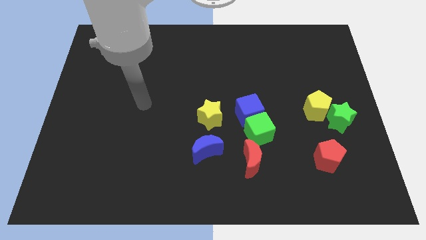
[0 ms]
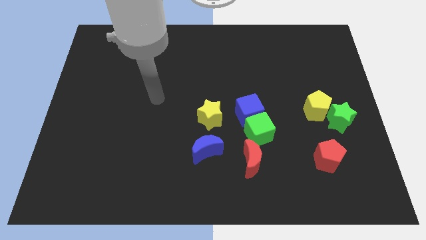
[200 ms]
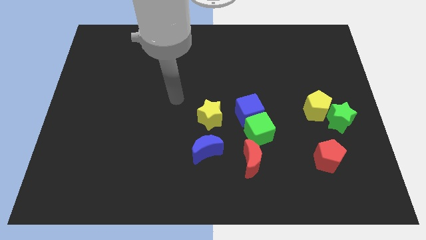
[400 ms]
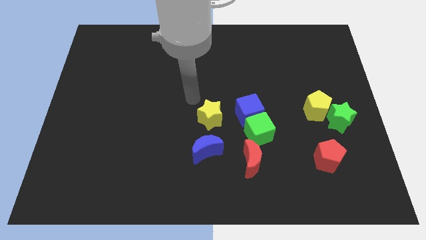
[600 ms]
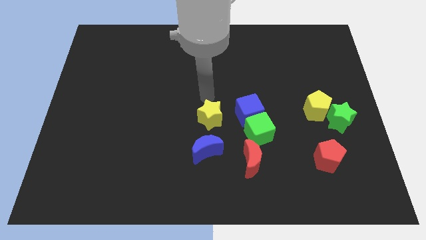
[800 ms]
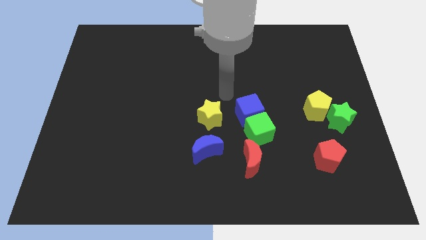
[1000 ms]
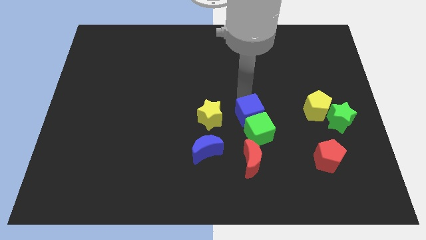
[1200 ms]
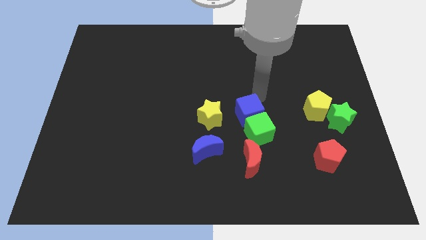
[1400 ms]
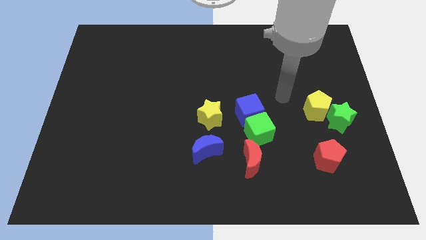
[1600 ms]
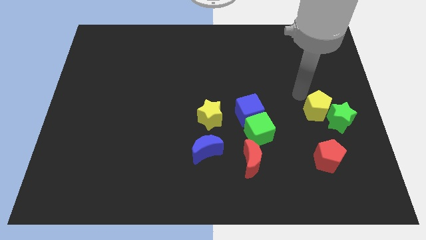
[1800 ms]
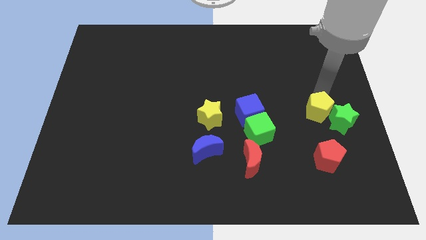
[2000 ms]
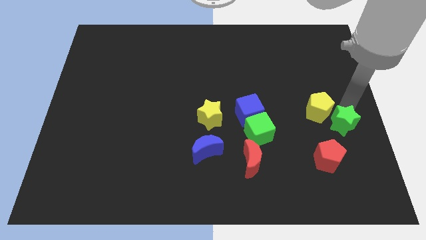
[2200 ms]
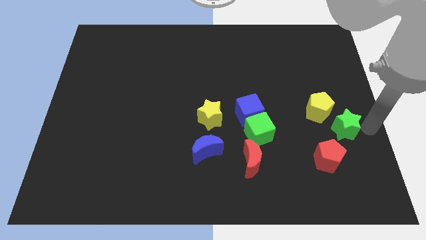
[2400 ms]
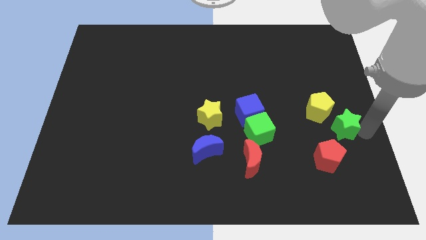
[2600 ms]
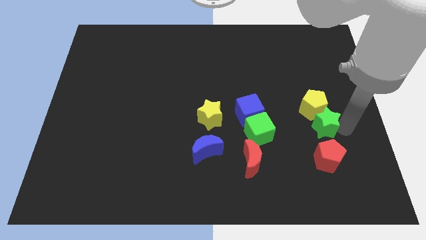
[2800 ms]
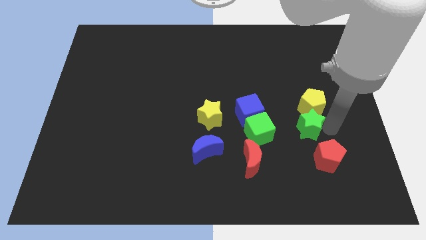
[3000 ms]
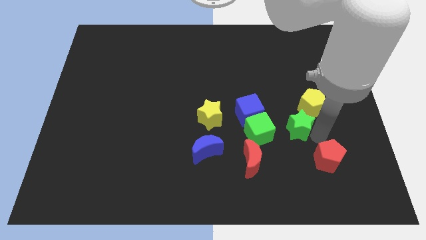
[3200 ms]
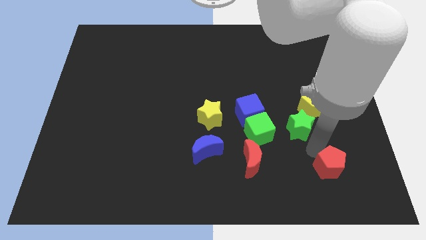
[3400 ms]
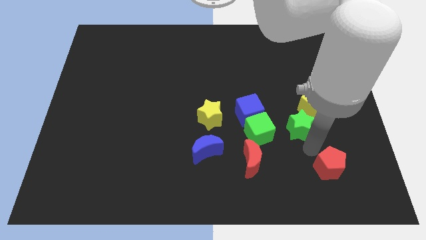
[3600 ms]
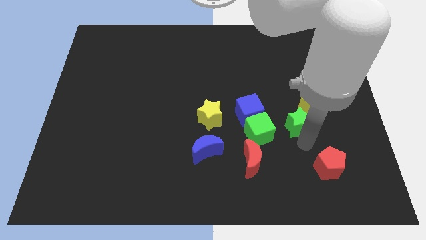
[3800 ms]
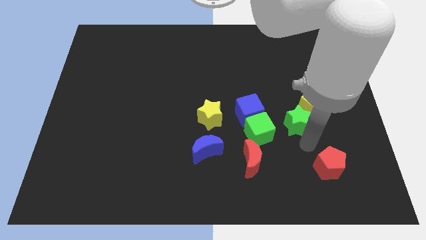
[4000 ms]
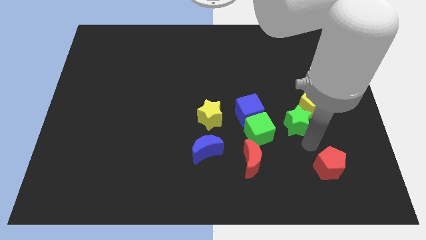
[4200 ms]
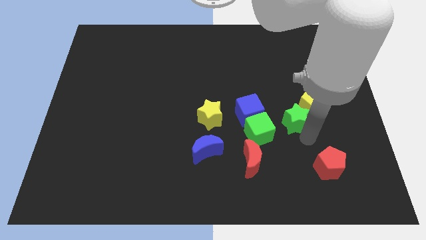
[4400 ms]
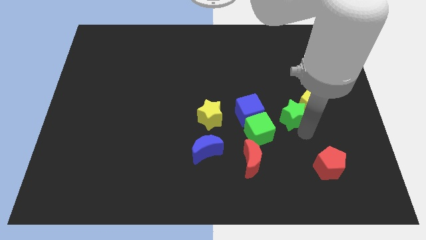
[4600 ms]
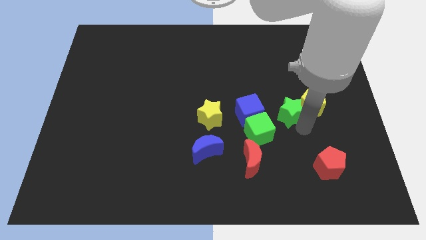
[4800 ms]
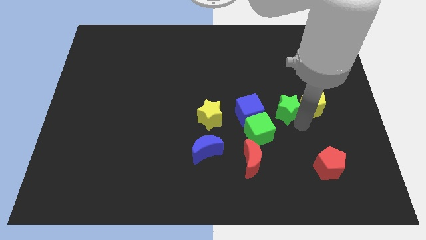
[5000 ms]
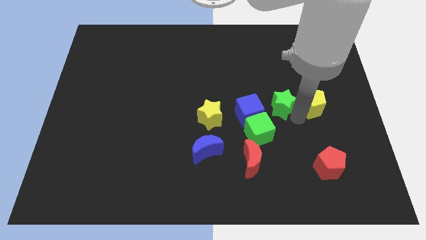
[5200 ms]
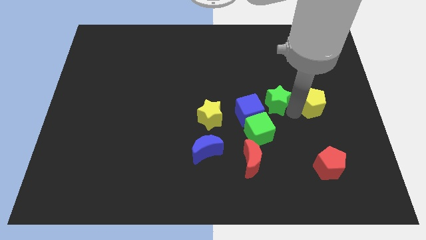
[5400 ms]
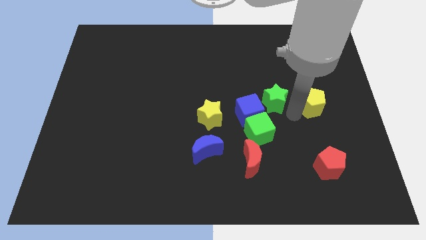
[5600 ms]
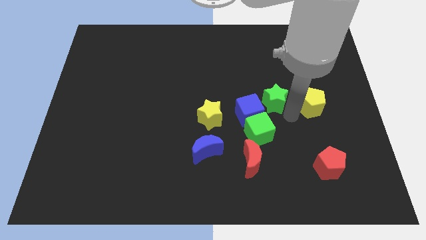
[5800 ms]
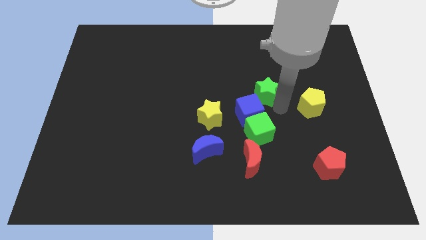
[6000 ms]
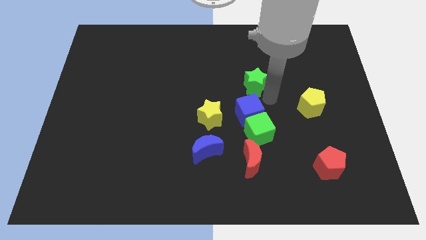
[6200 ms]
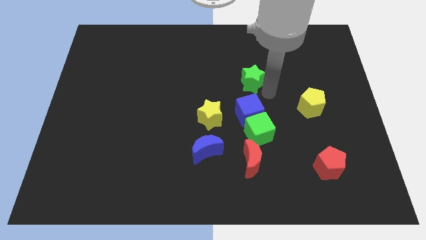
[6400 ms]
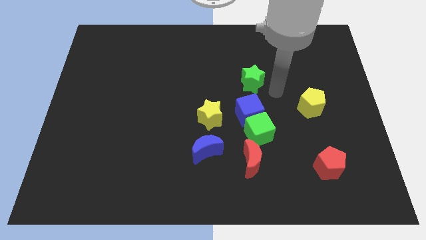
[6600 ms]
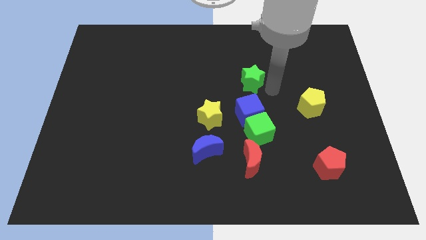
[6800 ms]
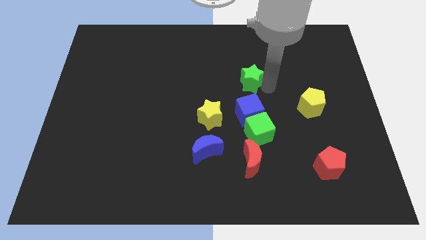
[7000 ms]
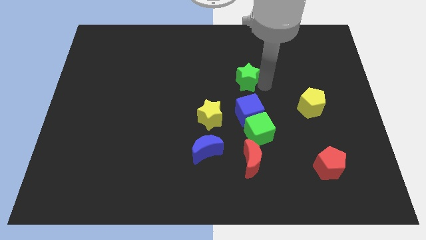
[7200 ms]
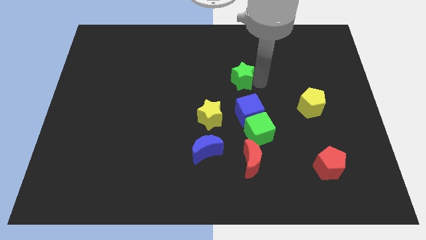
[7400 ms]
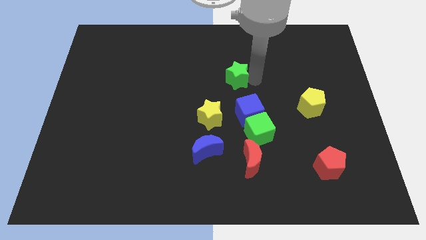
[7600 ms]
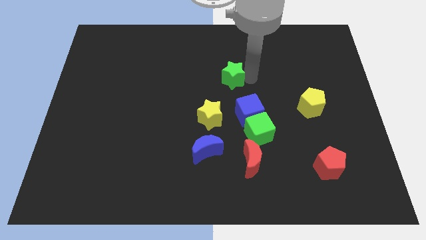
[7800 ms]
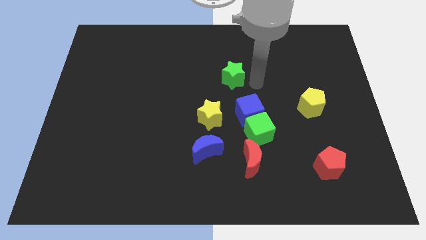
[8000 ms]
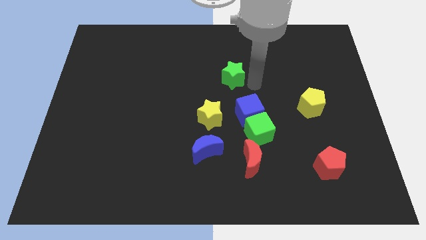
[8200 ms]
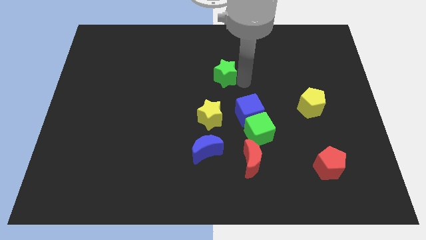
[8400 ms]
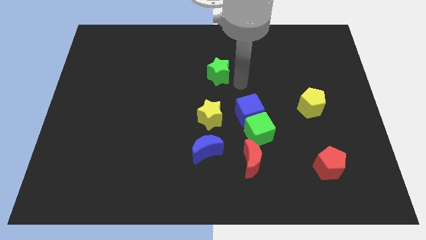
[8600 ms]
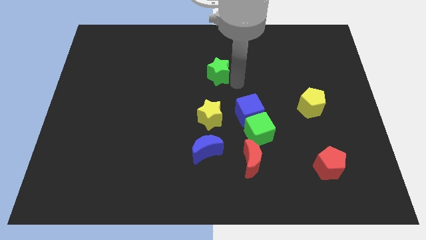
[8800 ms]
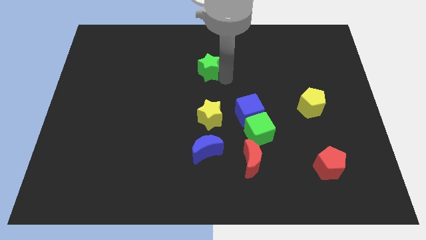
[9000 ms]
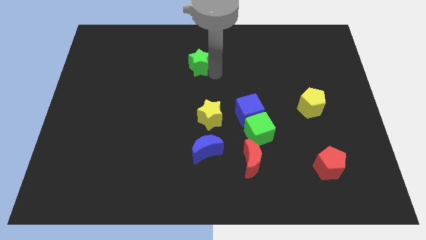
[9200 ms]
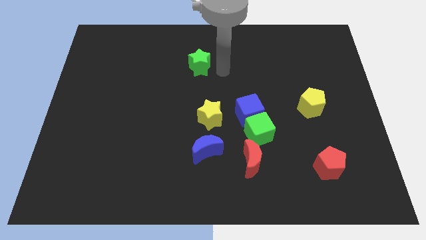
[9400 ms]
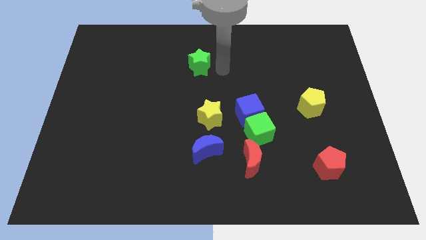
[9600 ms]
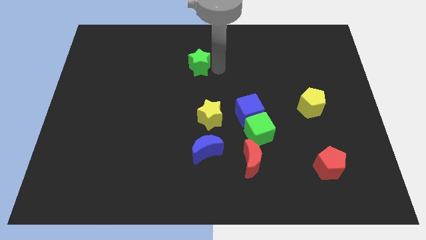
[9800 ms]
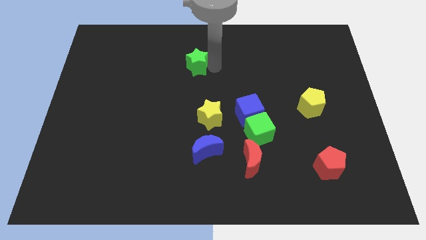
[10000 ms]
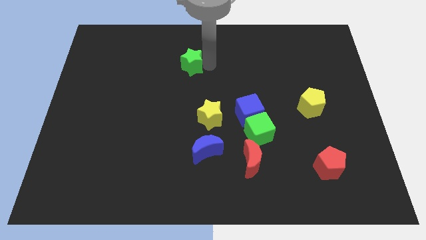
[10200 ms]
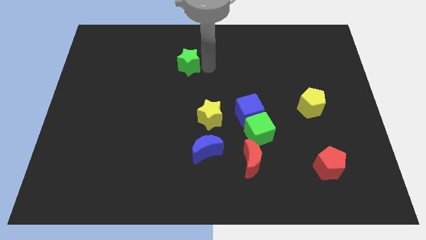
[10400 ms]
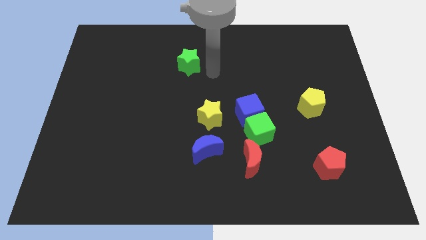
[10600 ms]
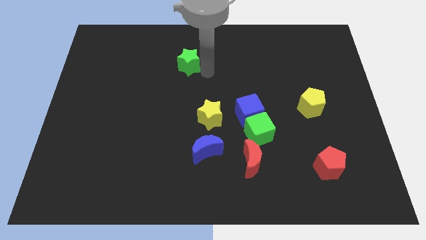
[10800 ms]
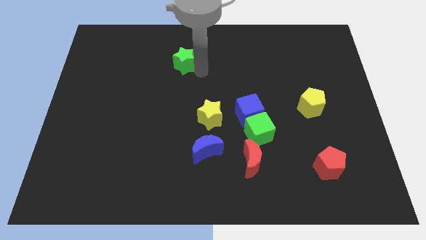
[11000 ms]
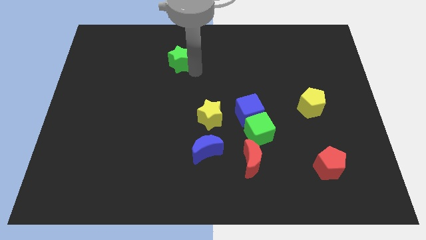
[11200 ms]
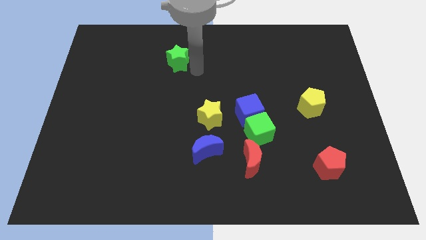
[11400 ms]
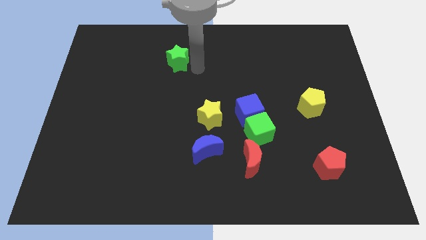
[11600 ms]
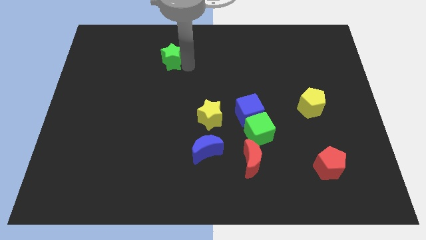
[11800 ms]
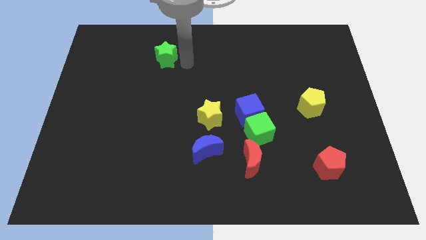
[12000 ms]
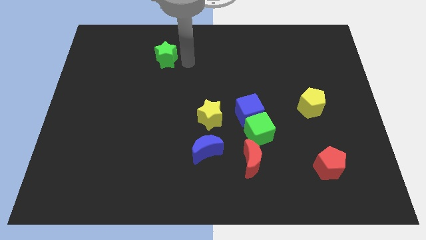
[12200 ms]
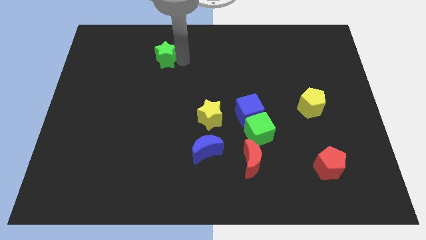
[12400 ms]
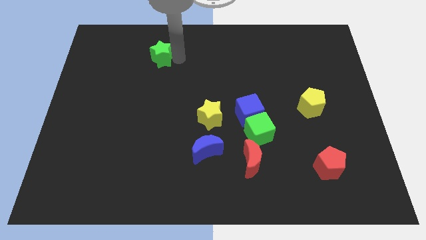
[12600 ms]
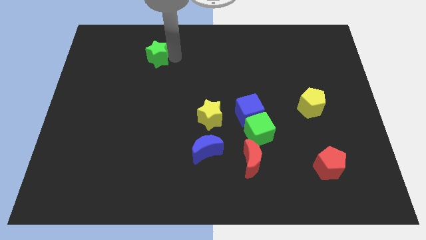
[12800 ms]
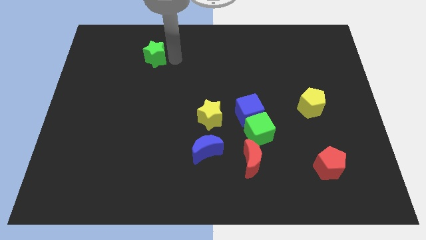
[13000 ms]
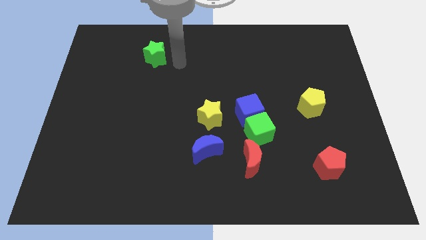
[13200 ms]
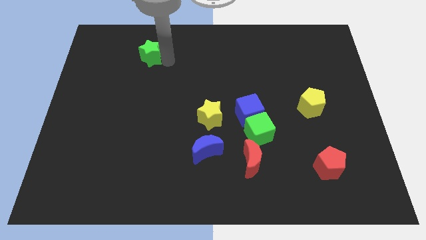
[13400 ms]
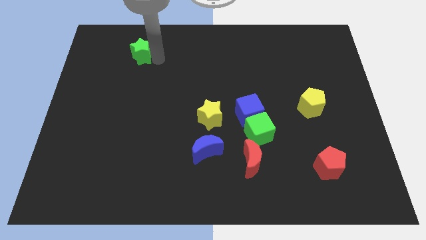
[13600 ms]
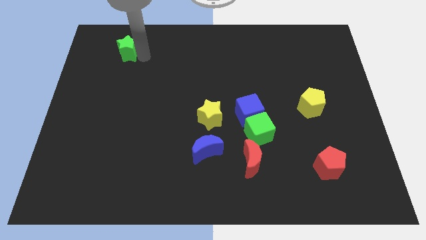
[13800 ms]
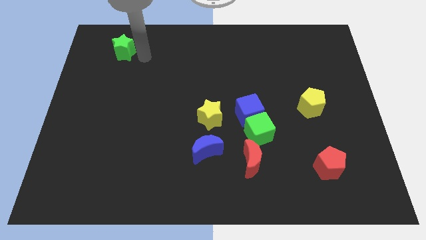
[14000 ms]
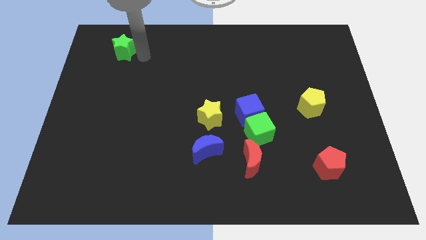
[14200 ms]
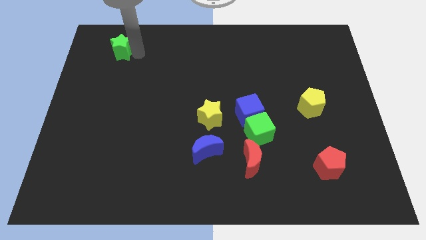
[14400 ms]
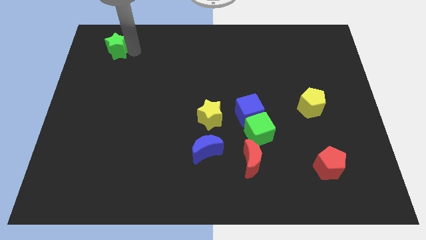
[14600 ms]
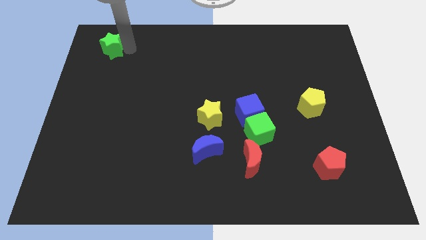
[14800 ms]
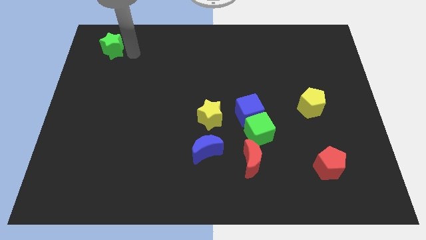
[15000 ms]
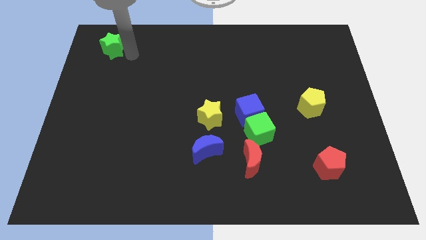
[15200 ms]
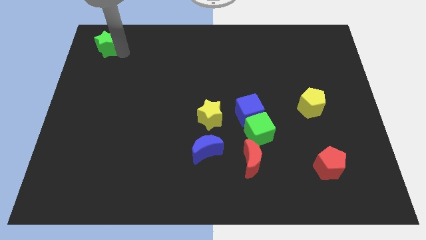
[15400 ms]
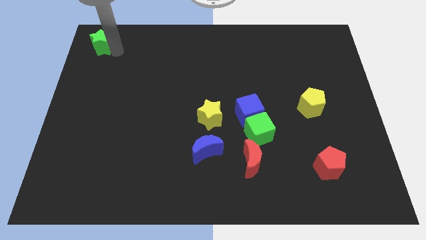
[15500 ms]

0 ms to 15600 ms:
slide the green star to the top left of the board
